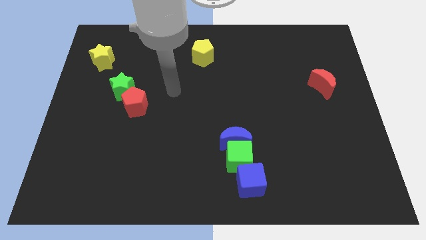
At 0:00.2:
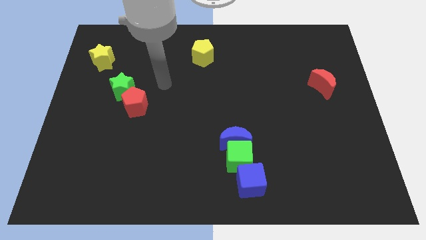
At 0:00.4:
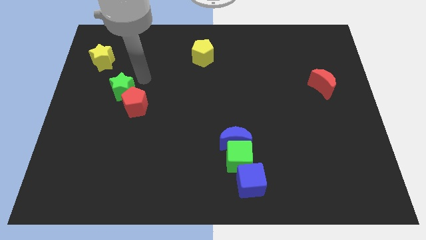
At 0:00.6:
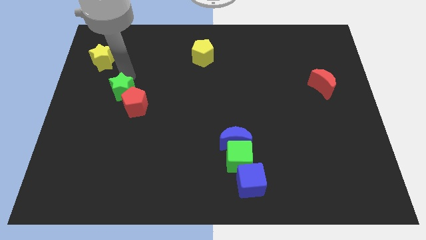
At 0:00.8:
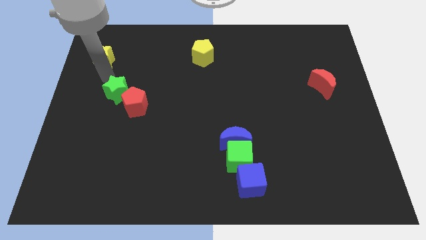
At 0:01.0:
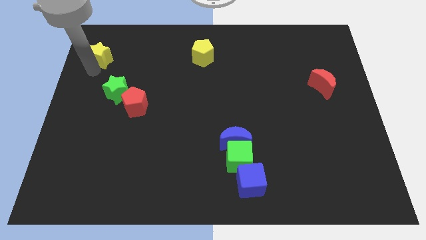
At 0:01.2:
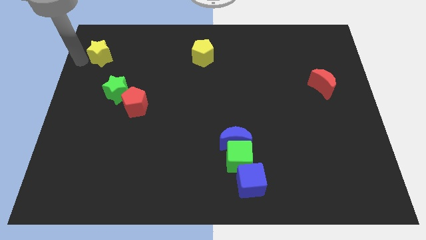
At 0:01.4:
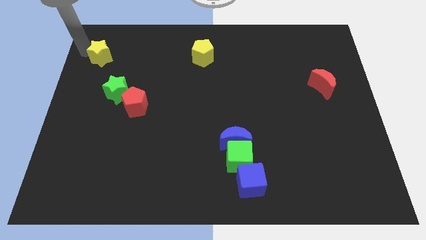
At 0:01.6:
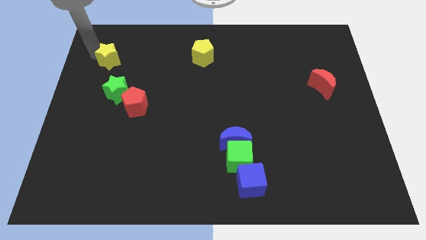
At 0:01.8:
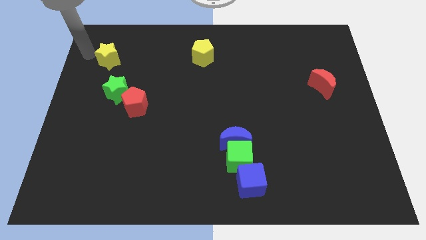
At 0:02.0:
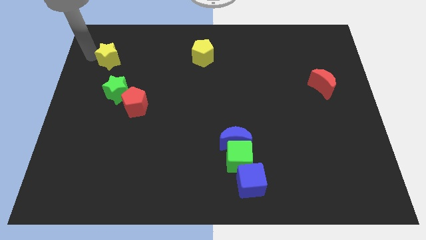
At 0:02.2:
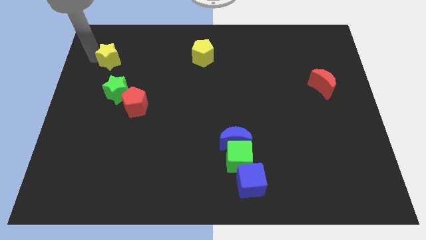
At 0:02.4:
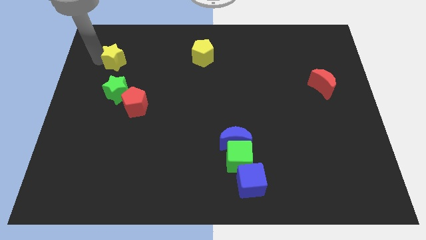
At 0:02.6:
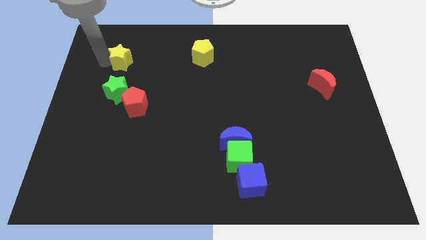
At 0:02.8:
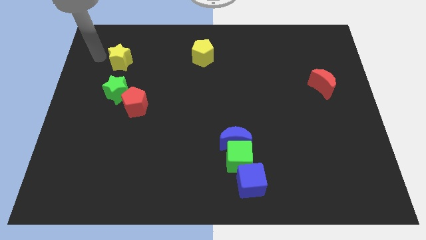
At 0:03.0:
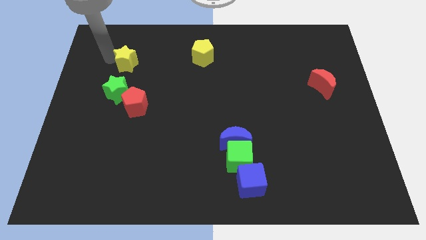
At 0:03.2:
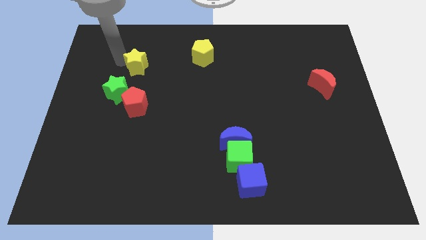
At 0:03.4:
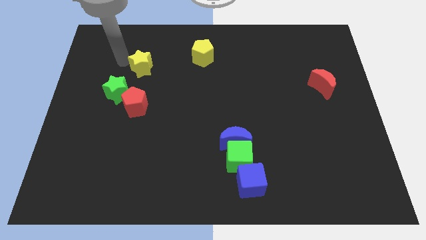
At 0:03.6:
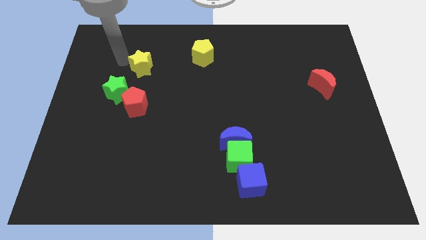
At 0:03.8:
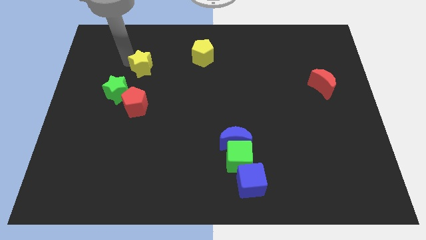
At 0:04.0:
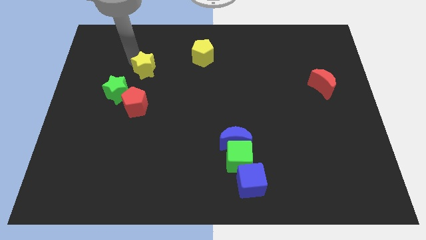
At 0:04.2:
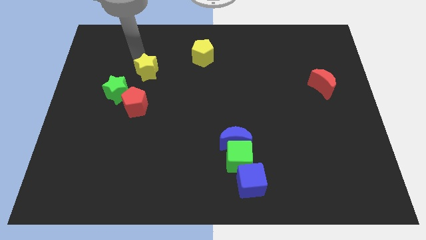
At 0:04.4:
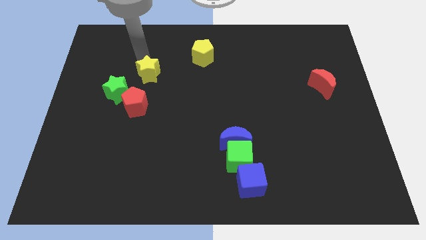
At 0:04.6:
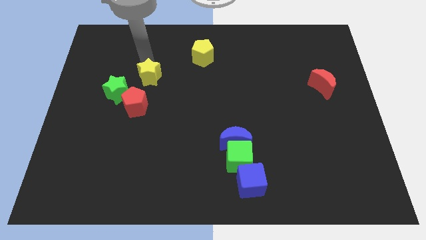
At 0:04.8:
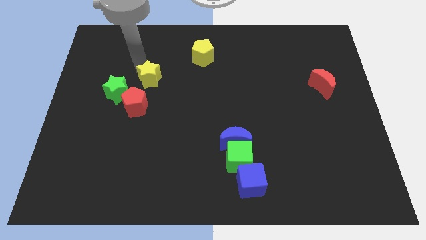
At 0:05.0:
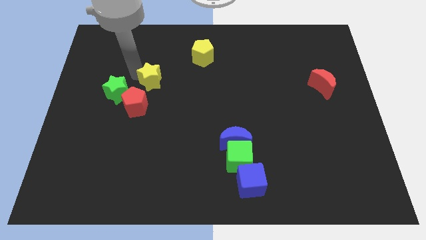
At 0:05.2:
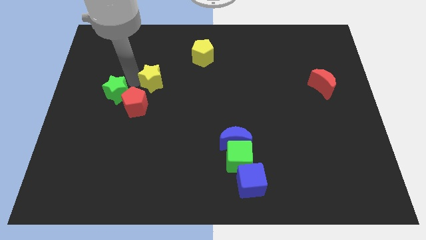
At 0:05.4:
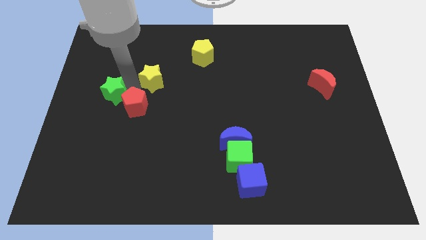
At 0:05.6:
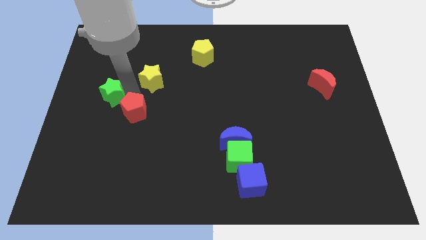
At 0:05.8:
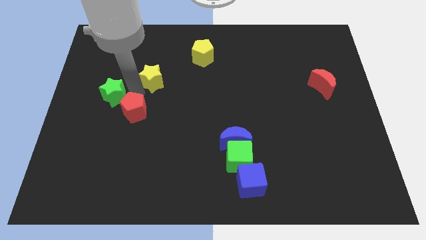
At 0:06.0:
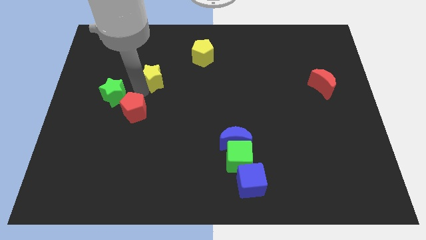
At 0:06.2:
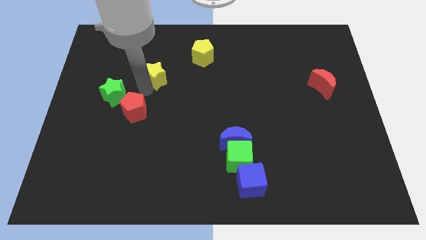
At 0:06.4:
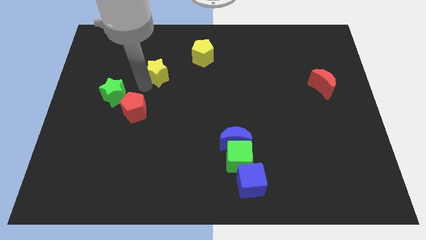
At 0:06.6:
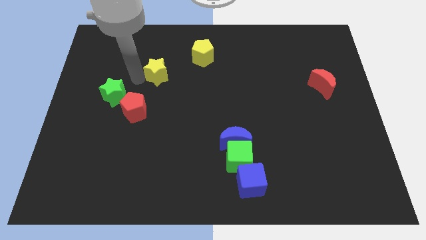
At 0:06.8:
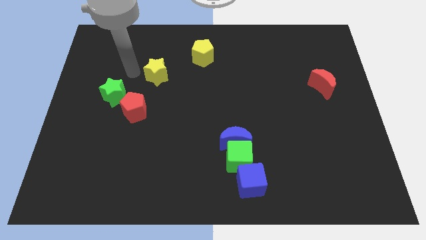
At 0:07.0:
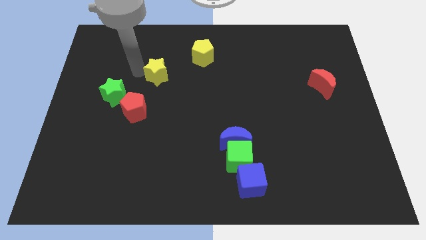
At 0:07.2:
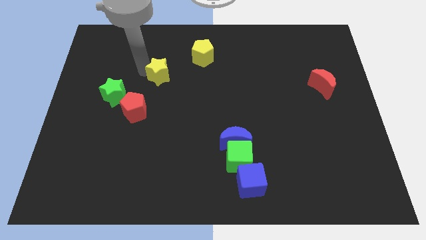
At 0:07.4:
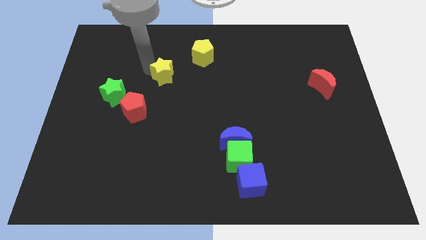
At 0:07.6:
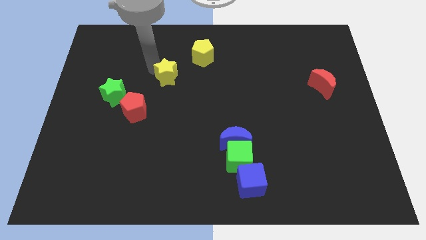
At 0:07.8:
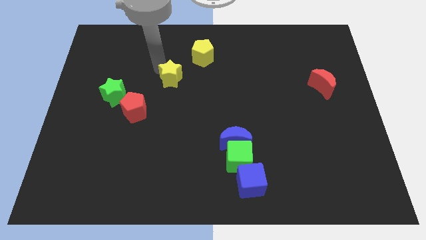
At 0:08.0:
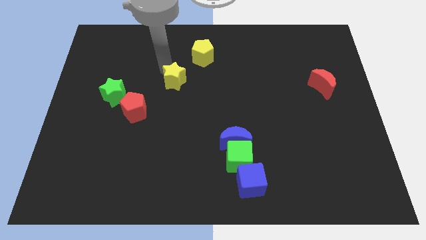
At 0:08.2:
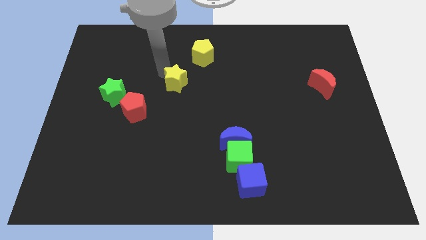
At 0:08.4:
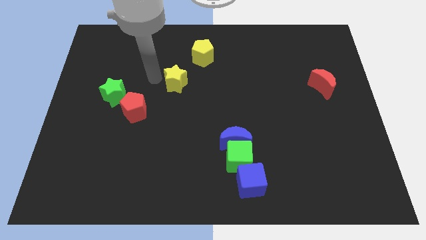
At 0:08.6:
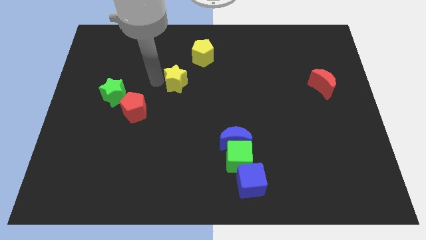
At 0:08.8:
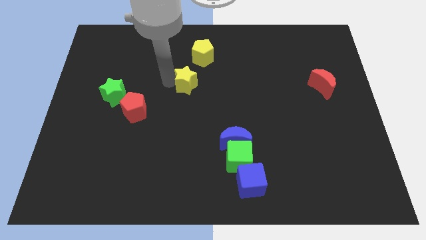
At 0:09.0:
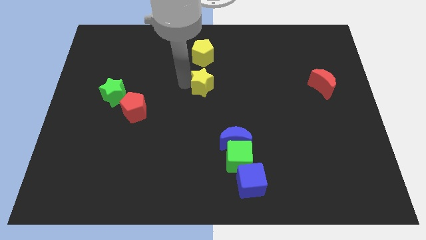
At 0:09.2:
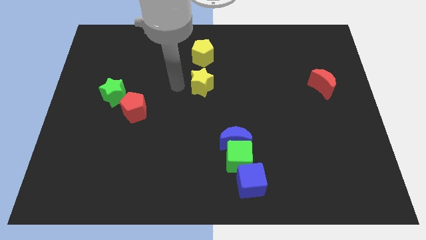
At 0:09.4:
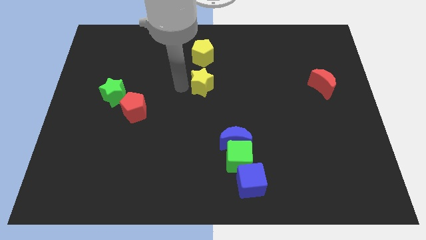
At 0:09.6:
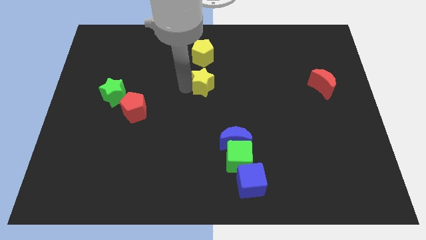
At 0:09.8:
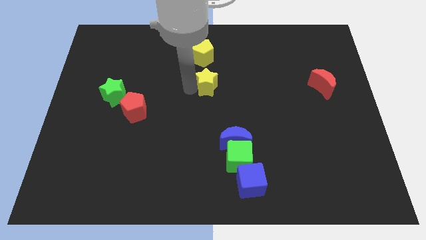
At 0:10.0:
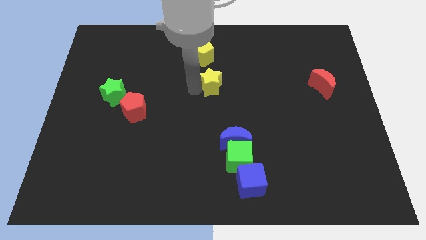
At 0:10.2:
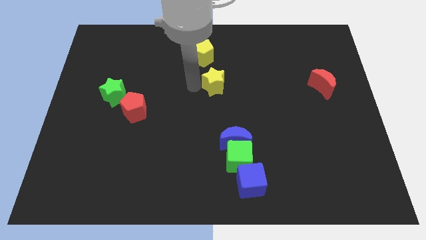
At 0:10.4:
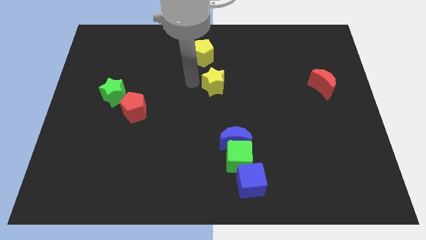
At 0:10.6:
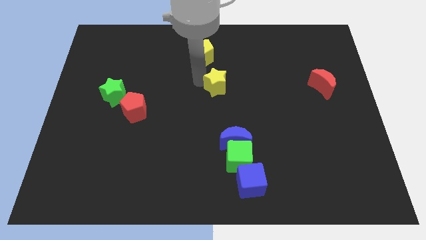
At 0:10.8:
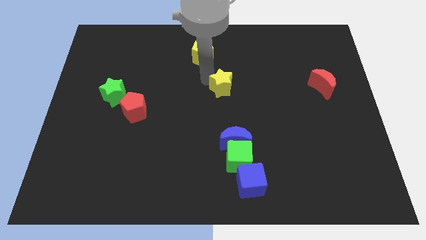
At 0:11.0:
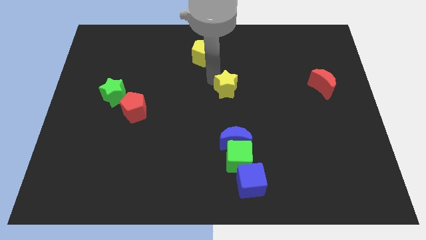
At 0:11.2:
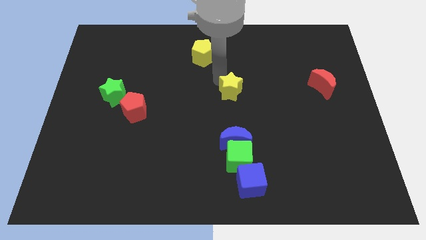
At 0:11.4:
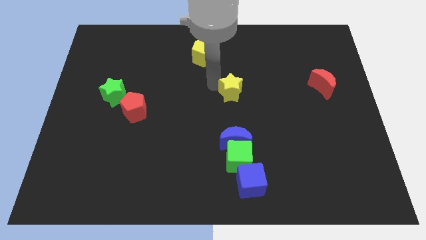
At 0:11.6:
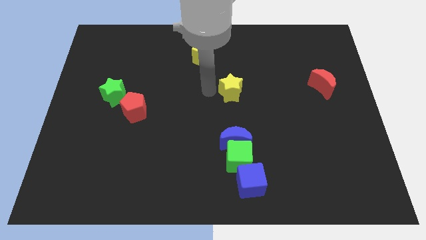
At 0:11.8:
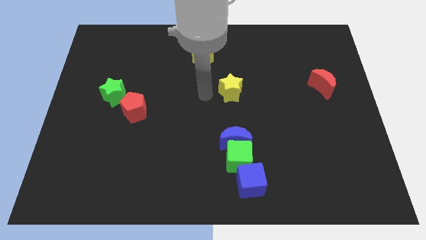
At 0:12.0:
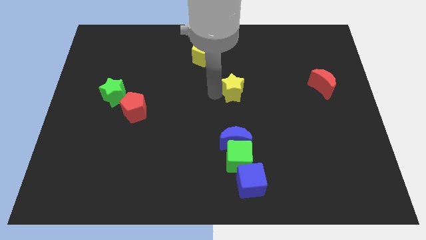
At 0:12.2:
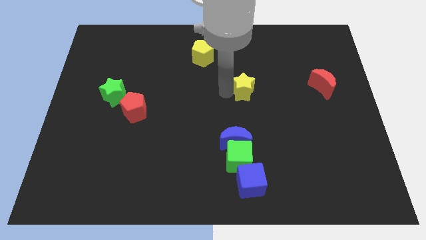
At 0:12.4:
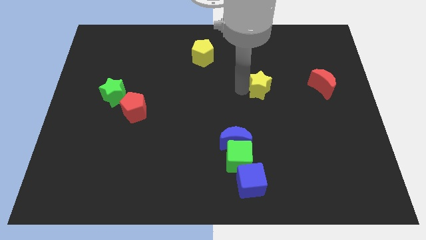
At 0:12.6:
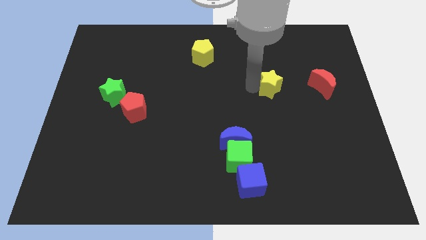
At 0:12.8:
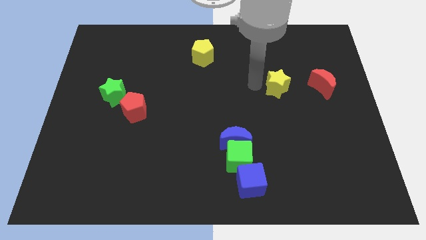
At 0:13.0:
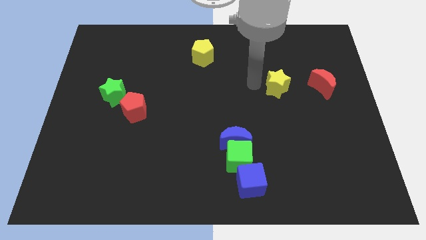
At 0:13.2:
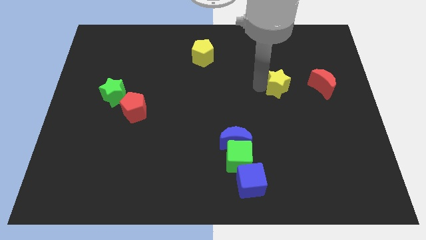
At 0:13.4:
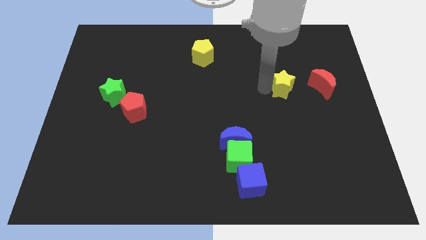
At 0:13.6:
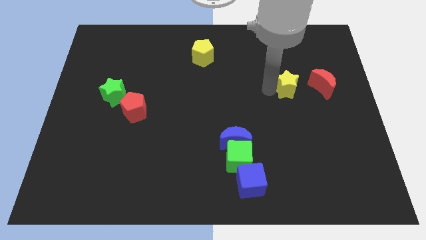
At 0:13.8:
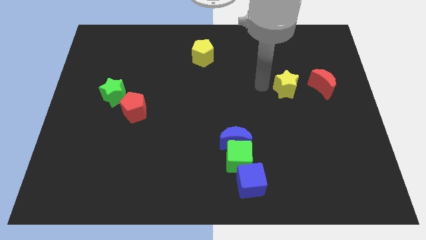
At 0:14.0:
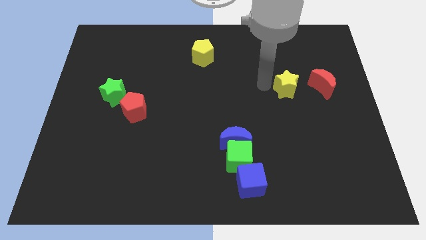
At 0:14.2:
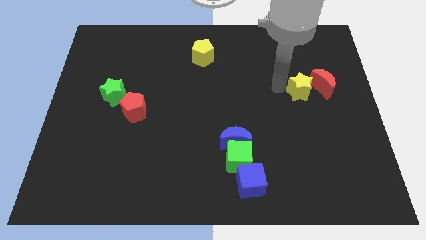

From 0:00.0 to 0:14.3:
put the yellow star next to the red moon
